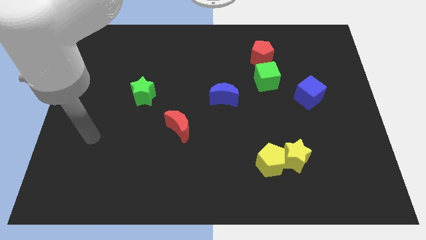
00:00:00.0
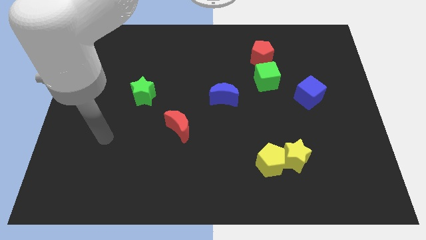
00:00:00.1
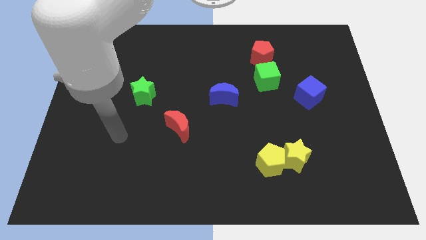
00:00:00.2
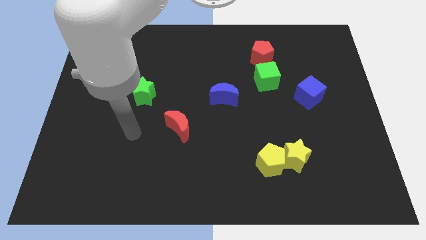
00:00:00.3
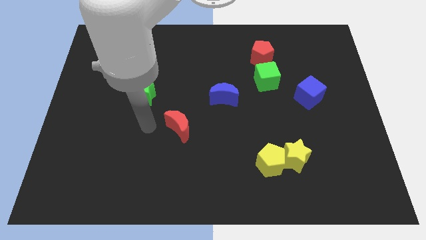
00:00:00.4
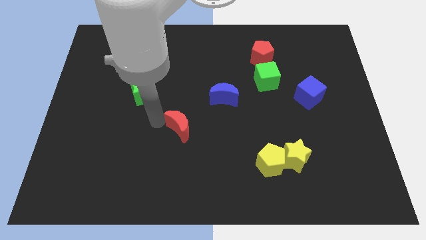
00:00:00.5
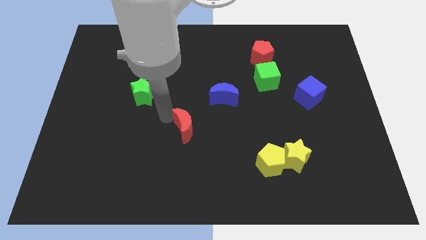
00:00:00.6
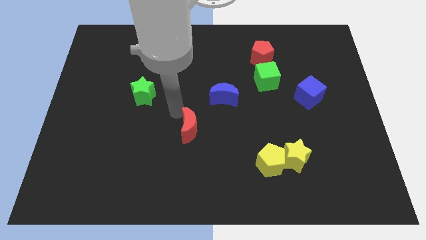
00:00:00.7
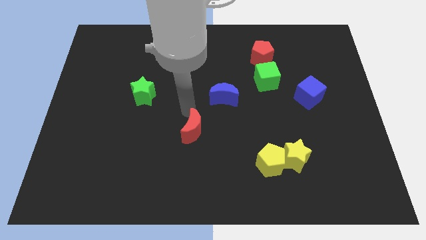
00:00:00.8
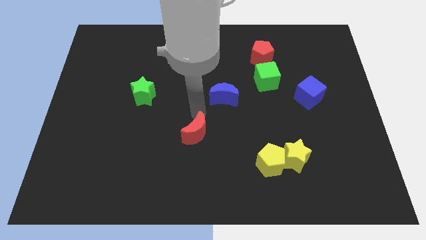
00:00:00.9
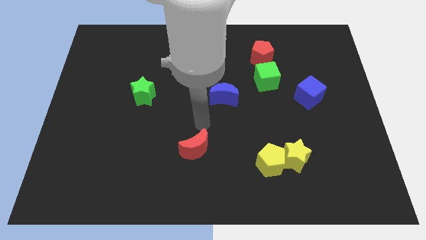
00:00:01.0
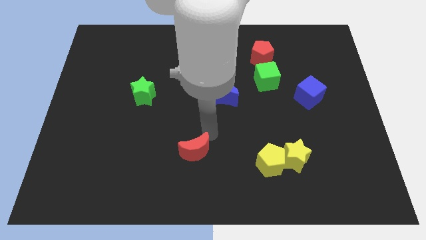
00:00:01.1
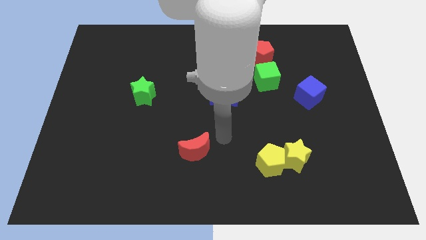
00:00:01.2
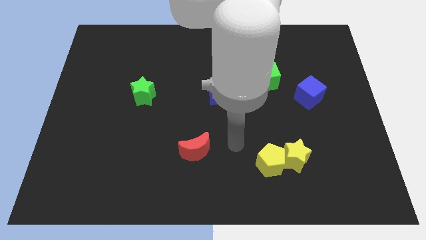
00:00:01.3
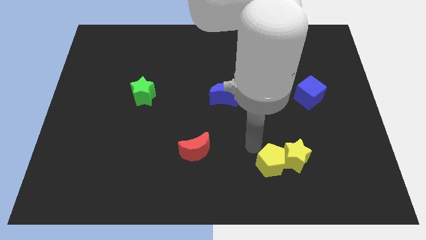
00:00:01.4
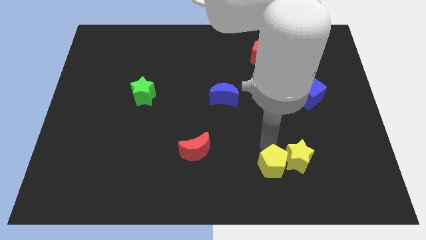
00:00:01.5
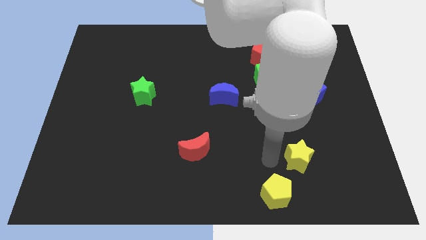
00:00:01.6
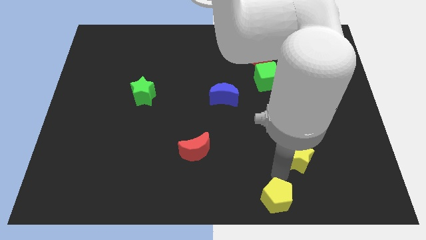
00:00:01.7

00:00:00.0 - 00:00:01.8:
pull the yellow star apart from the yellow pentagon

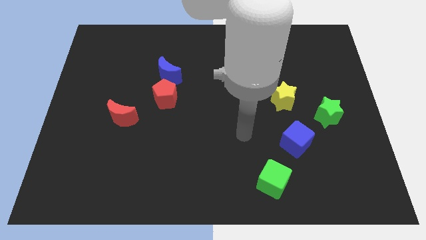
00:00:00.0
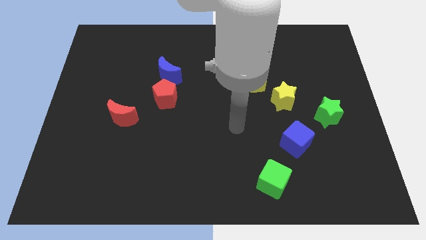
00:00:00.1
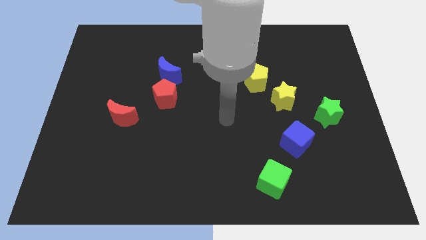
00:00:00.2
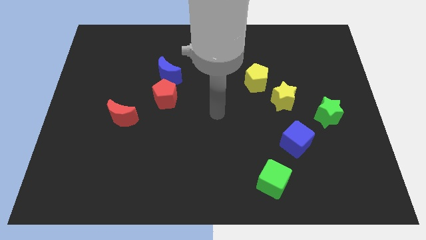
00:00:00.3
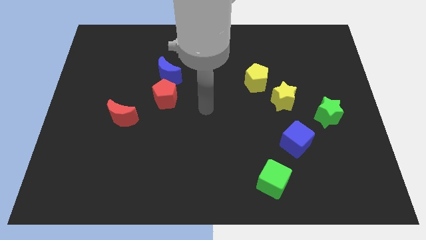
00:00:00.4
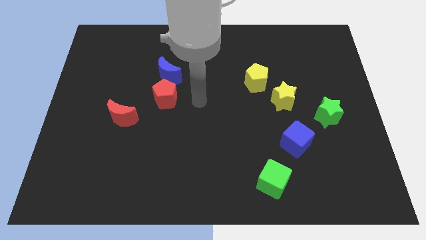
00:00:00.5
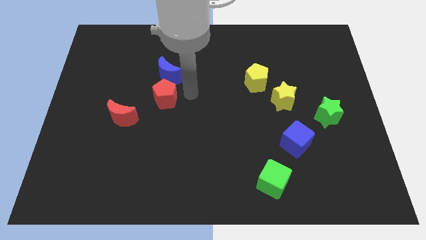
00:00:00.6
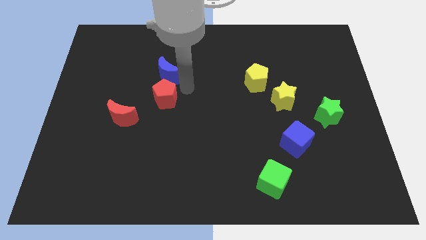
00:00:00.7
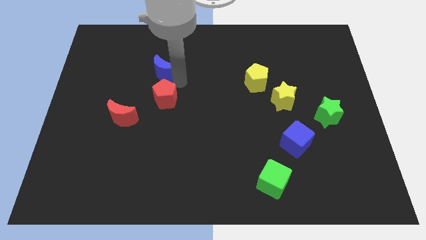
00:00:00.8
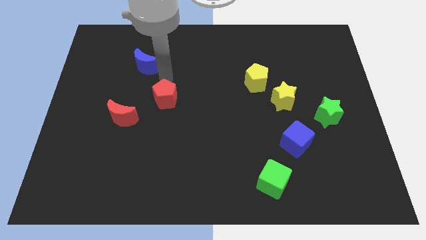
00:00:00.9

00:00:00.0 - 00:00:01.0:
separate the red pentagon from the blue moon

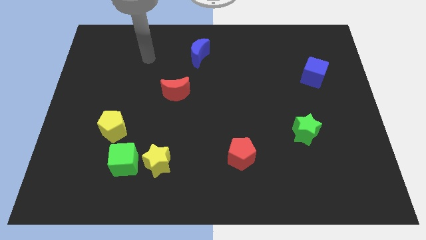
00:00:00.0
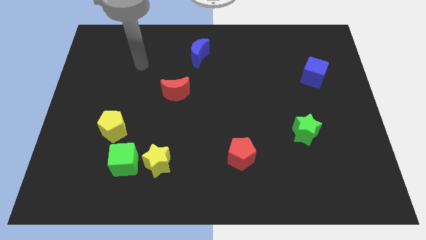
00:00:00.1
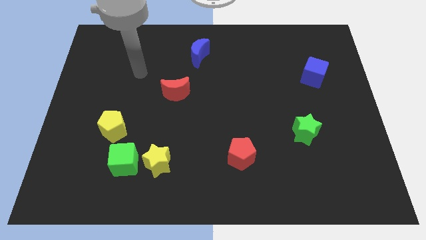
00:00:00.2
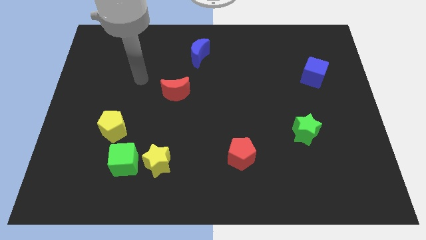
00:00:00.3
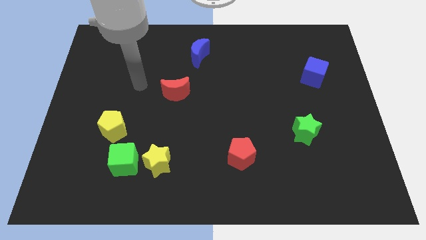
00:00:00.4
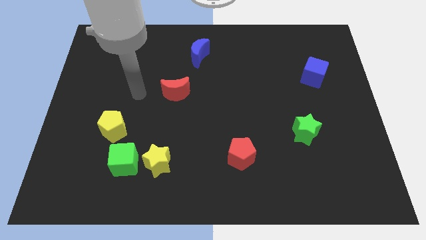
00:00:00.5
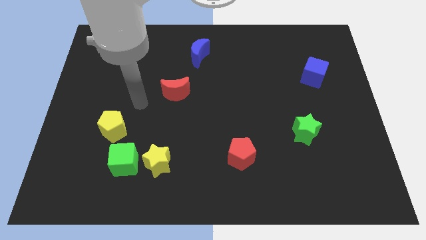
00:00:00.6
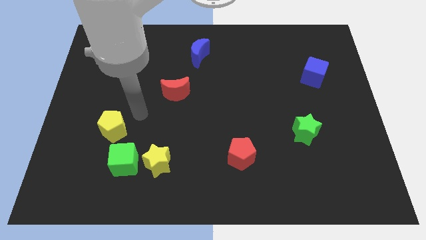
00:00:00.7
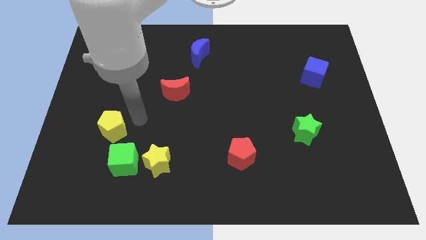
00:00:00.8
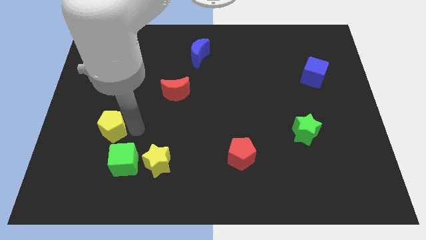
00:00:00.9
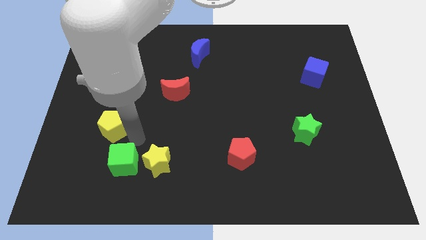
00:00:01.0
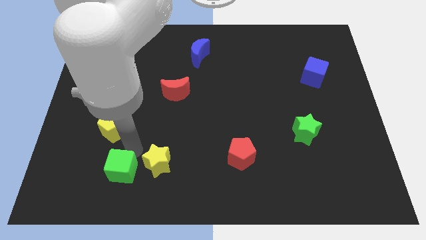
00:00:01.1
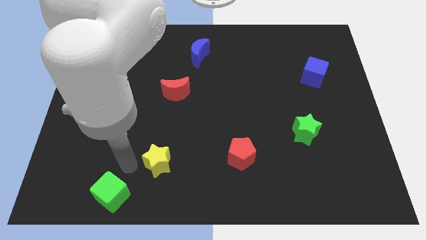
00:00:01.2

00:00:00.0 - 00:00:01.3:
pull the yellow star apart from the green cube

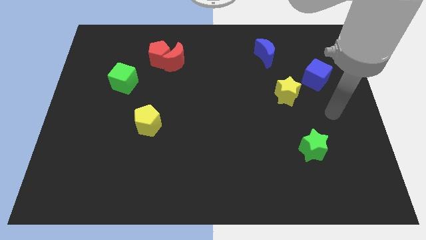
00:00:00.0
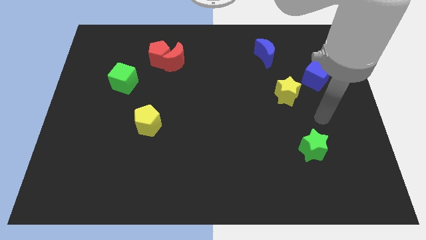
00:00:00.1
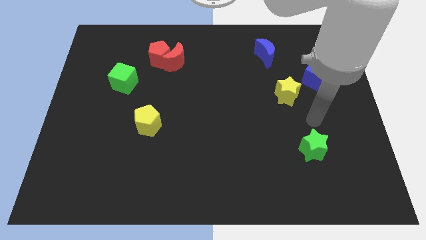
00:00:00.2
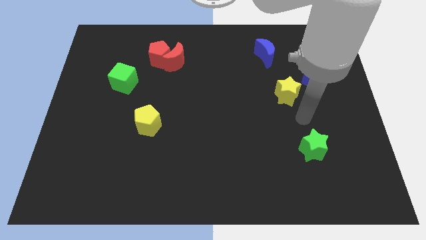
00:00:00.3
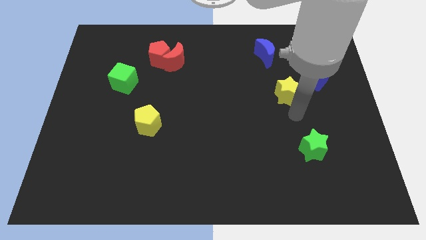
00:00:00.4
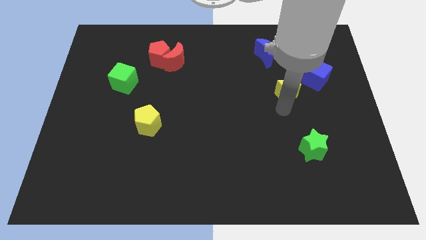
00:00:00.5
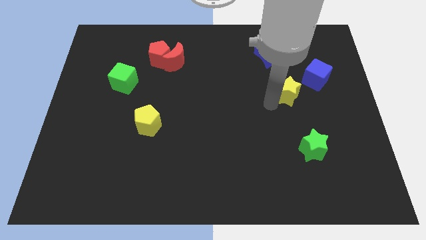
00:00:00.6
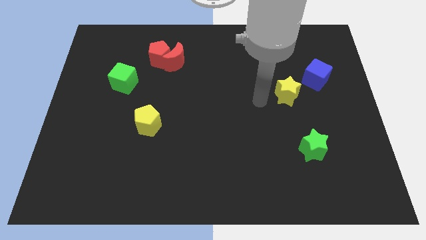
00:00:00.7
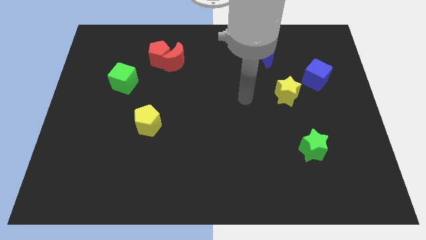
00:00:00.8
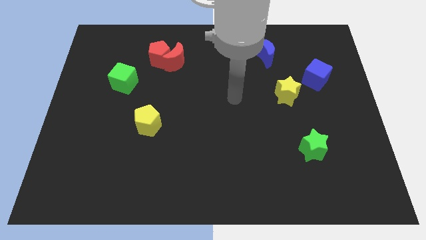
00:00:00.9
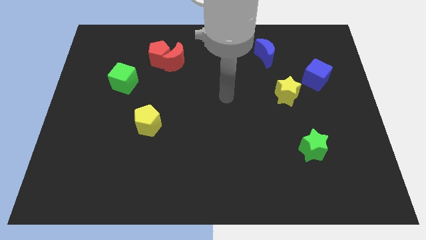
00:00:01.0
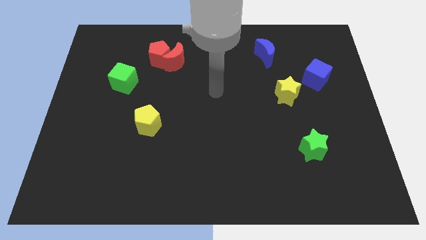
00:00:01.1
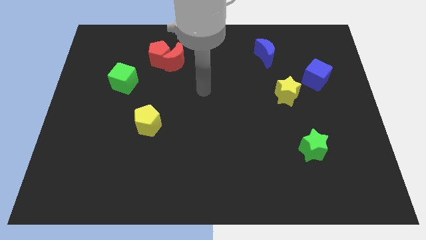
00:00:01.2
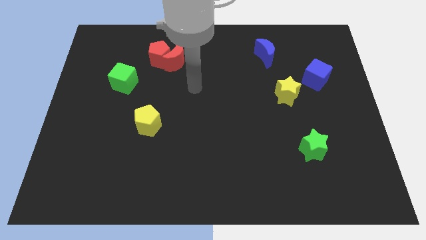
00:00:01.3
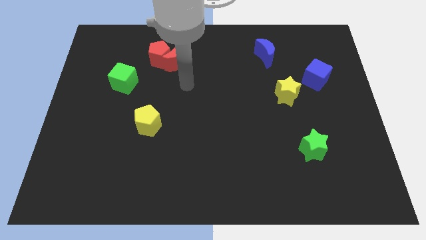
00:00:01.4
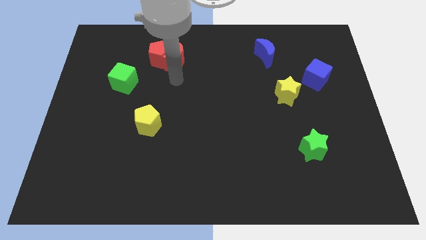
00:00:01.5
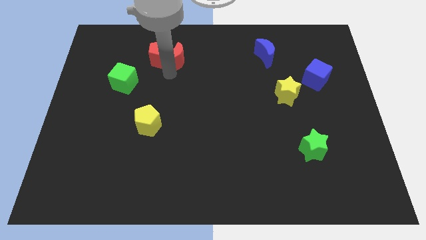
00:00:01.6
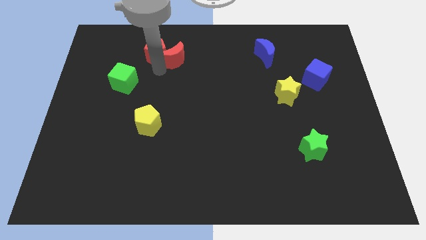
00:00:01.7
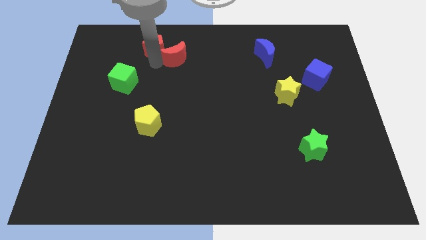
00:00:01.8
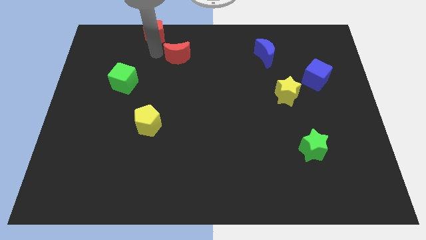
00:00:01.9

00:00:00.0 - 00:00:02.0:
separate the red moon from the red pentagon

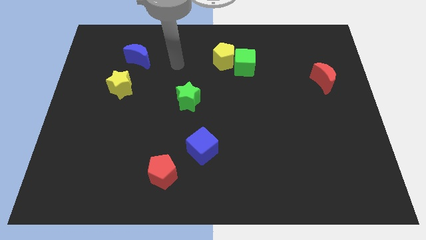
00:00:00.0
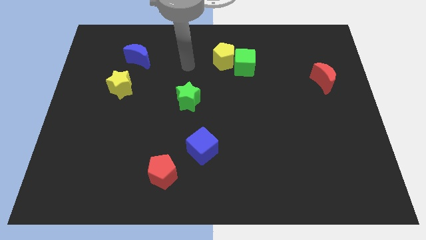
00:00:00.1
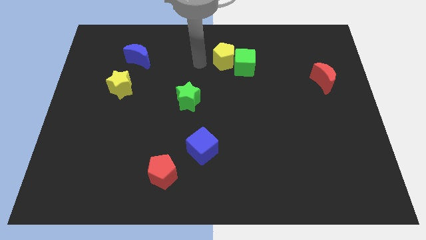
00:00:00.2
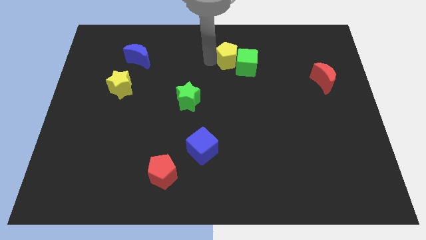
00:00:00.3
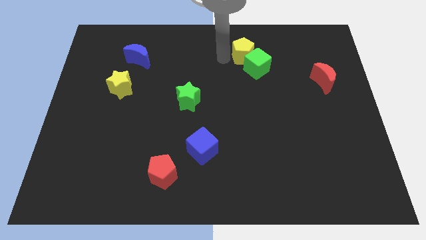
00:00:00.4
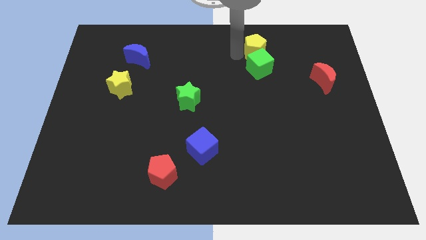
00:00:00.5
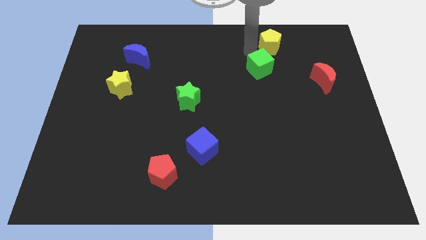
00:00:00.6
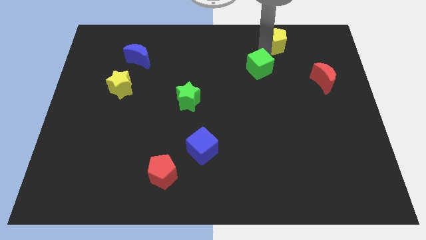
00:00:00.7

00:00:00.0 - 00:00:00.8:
separate the green cube from the yellow pentagon

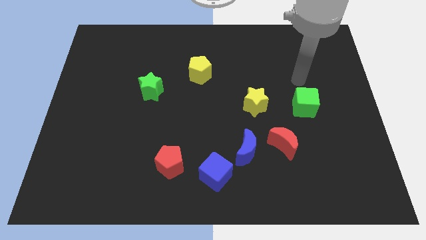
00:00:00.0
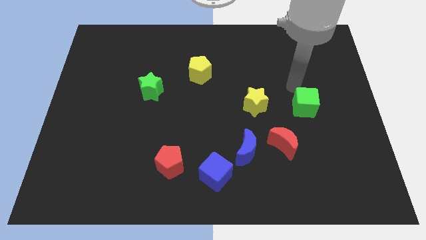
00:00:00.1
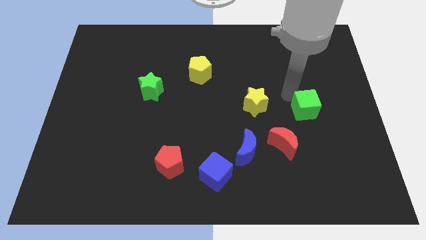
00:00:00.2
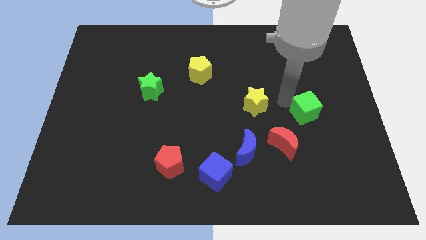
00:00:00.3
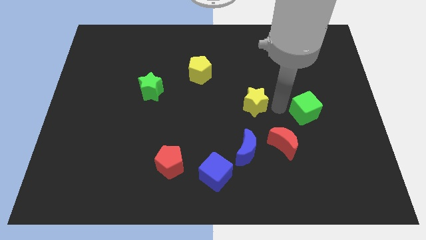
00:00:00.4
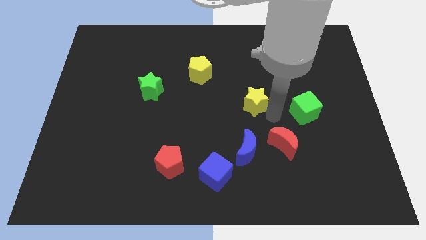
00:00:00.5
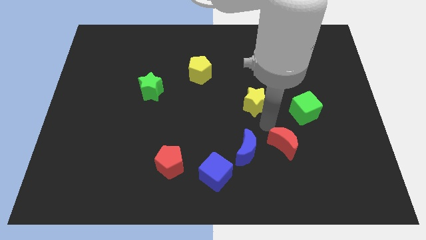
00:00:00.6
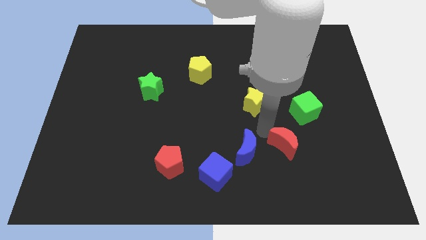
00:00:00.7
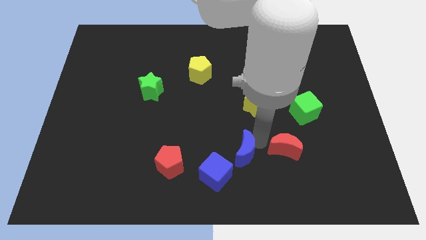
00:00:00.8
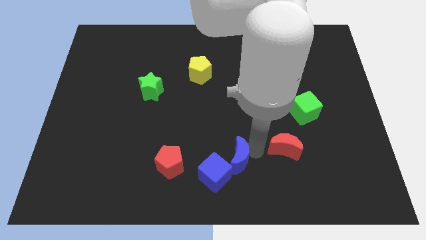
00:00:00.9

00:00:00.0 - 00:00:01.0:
pull the red moon apart from the blue moon

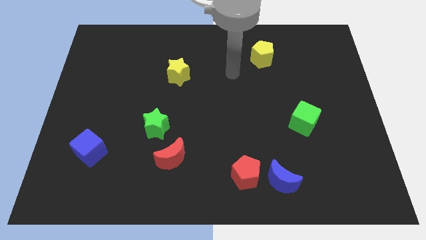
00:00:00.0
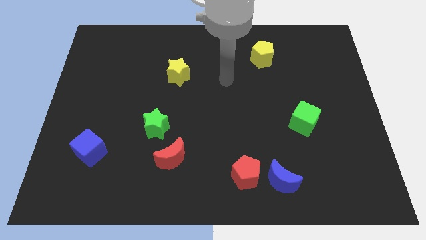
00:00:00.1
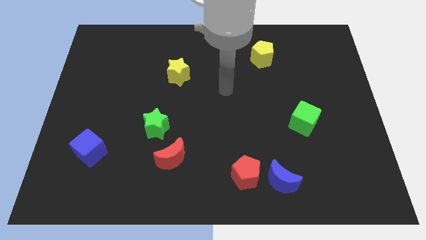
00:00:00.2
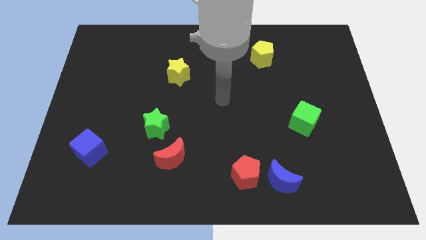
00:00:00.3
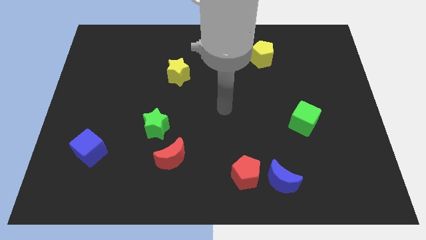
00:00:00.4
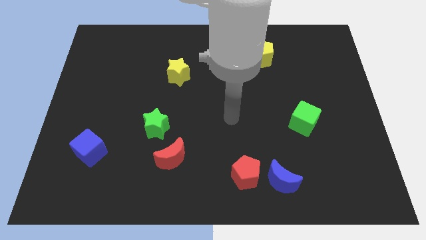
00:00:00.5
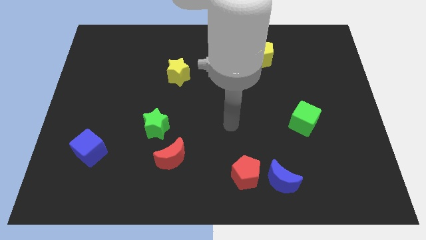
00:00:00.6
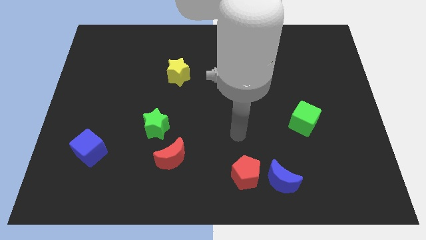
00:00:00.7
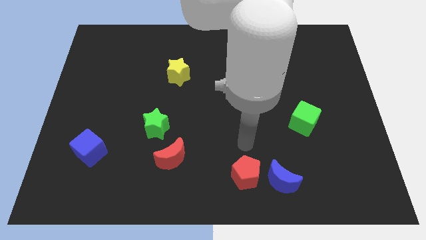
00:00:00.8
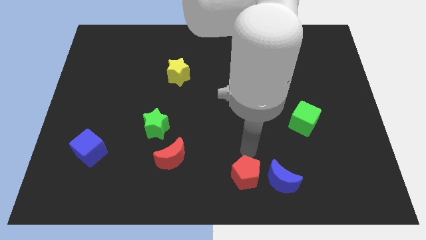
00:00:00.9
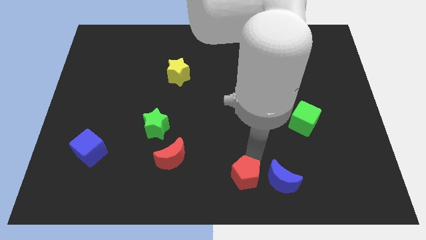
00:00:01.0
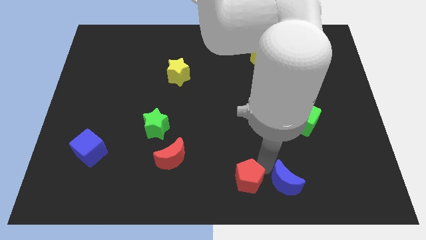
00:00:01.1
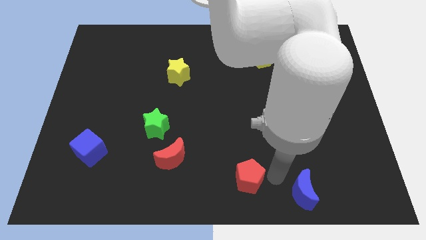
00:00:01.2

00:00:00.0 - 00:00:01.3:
pull the red pentagon apart from the blue moon
